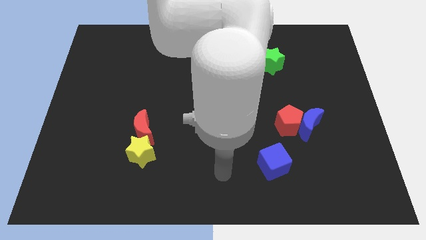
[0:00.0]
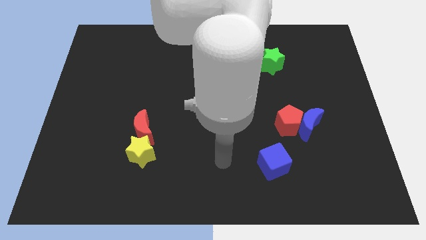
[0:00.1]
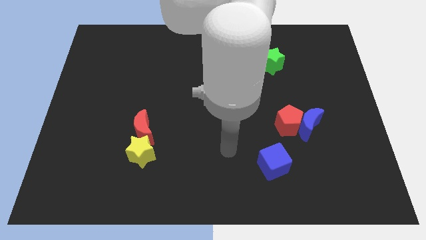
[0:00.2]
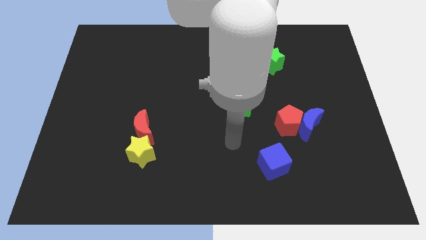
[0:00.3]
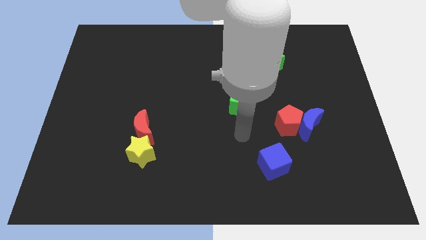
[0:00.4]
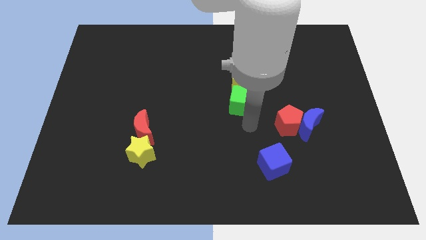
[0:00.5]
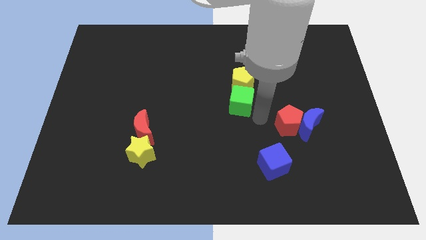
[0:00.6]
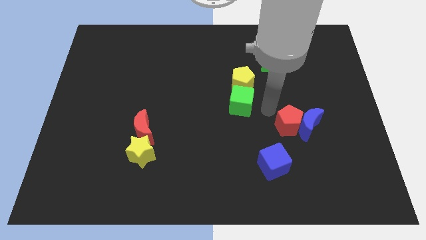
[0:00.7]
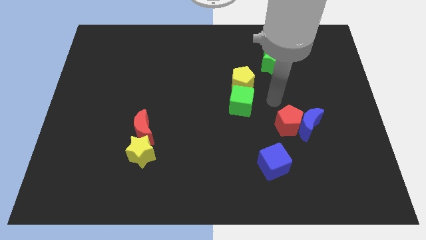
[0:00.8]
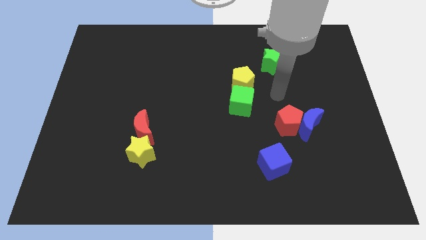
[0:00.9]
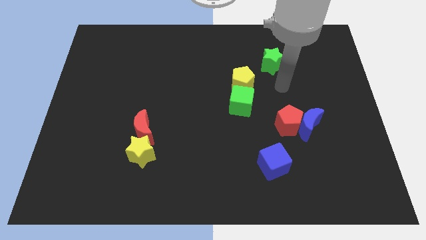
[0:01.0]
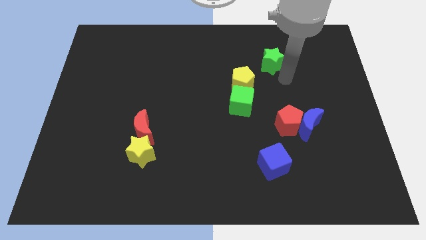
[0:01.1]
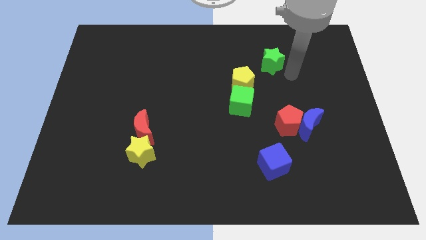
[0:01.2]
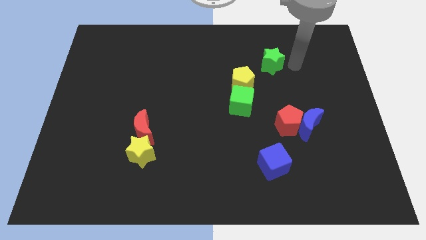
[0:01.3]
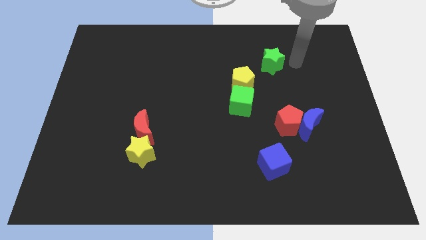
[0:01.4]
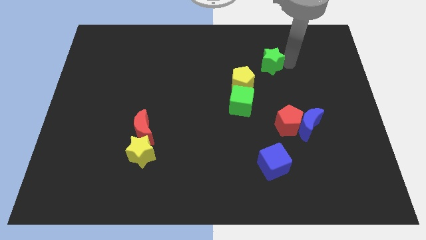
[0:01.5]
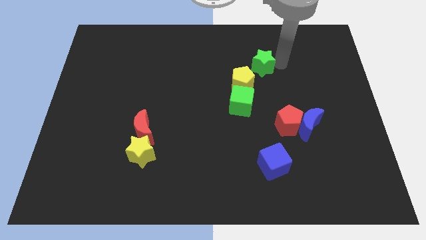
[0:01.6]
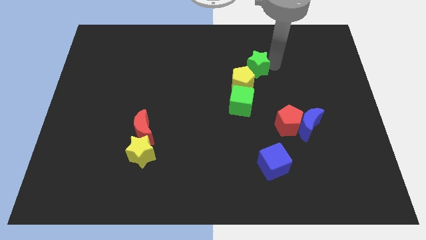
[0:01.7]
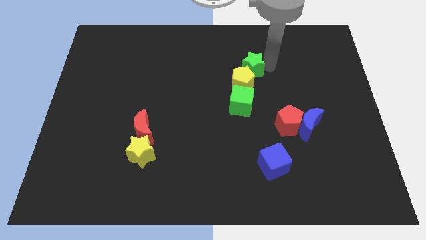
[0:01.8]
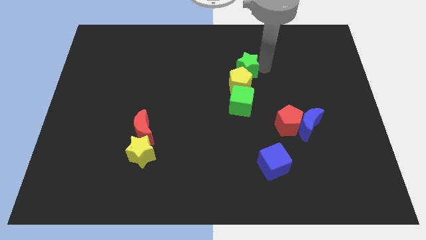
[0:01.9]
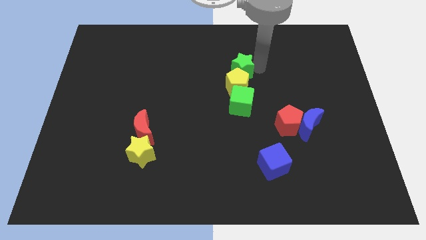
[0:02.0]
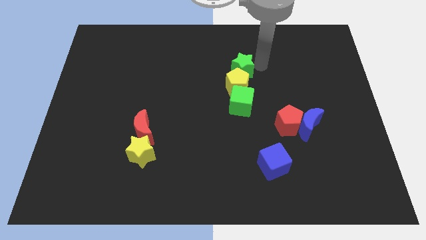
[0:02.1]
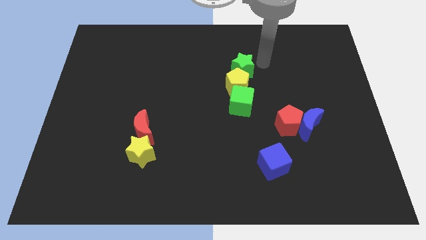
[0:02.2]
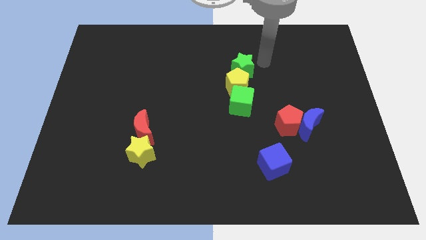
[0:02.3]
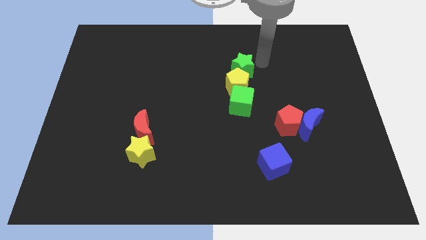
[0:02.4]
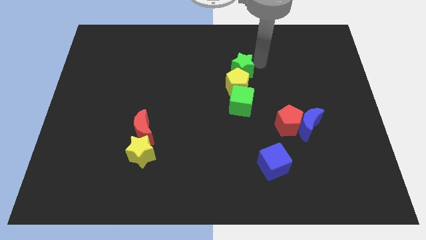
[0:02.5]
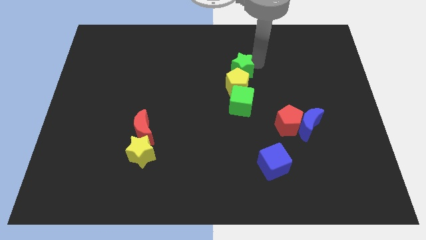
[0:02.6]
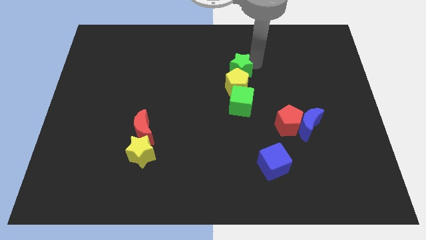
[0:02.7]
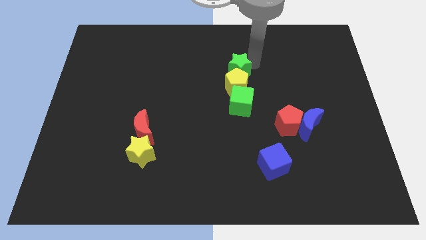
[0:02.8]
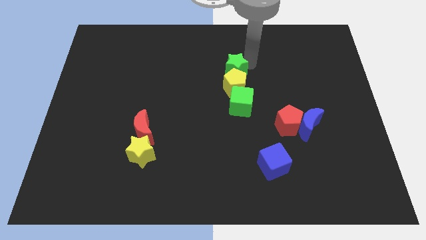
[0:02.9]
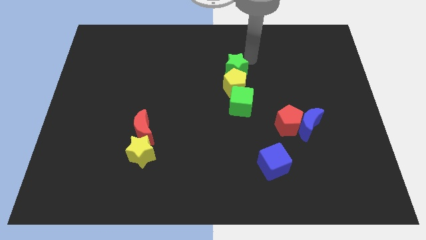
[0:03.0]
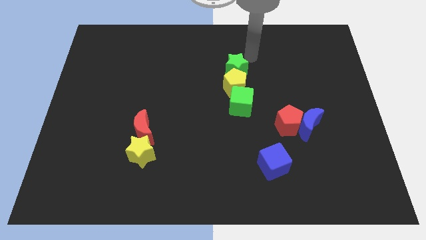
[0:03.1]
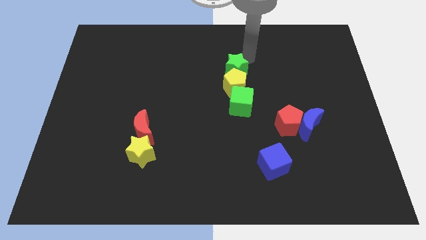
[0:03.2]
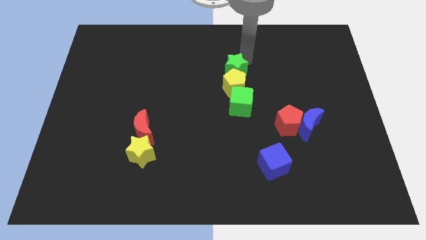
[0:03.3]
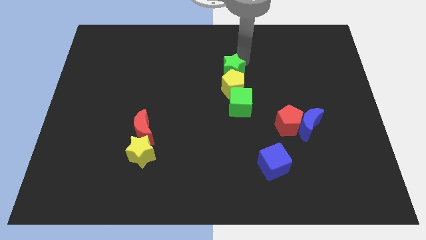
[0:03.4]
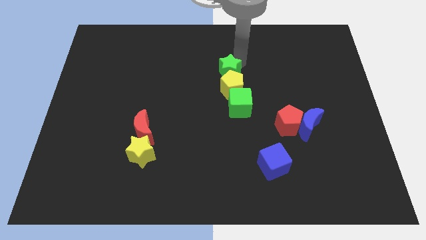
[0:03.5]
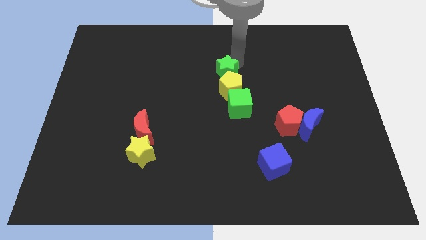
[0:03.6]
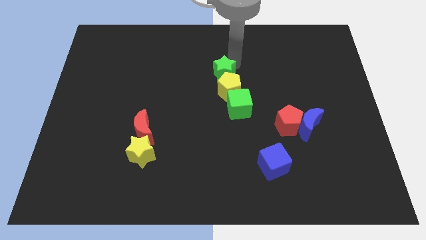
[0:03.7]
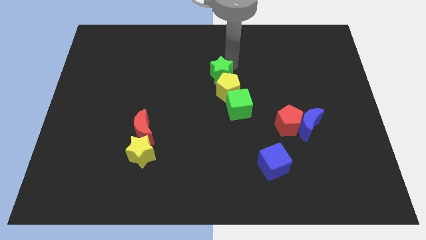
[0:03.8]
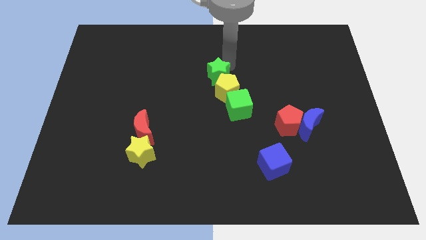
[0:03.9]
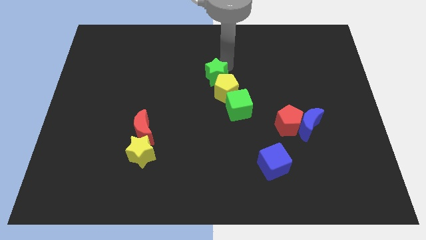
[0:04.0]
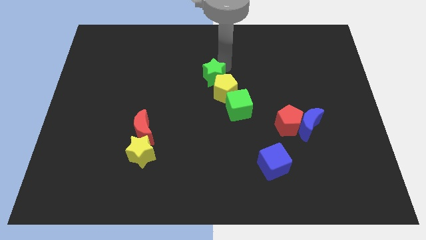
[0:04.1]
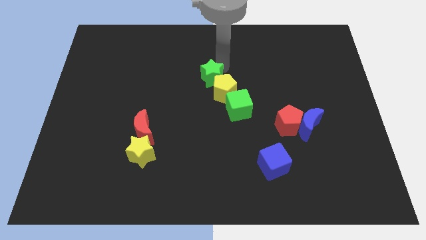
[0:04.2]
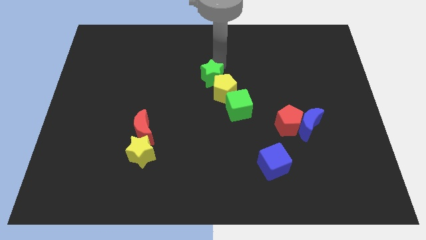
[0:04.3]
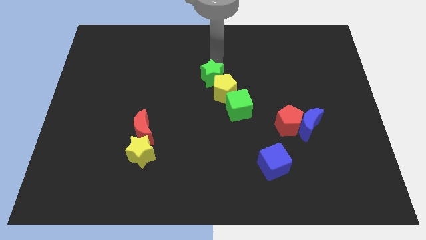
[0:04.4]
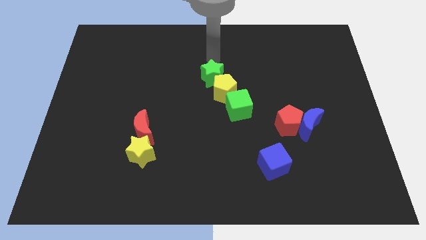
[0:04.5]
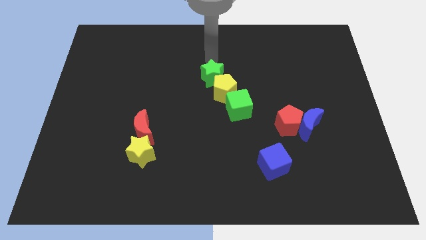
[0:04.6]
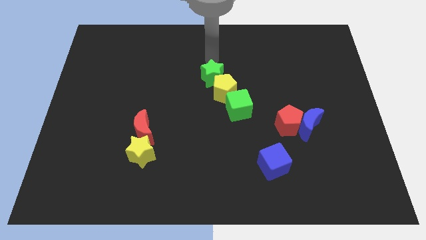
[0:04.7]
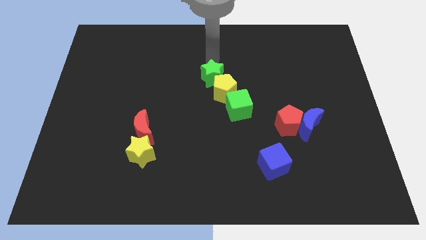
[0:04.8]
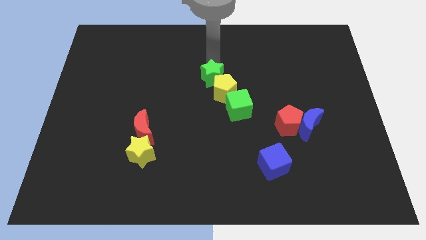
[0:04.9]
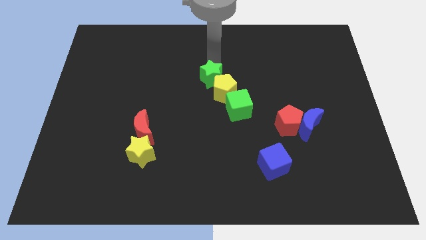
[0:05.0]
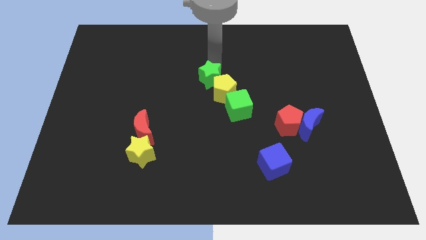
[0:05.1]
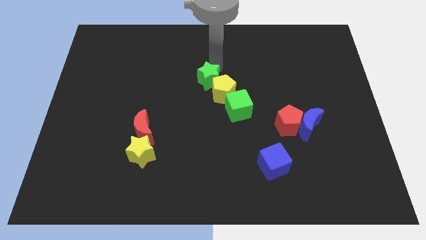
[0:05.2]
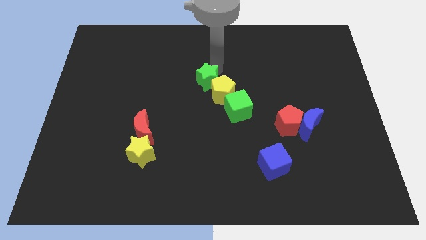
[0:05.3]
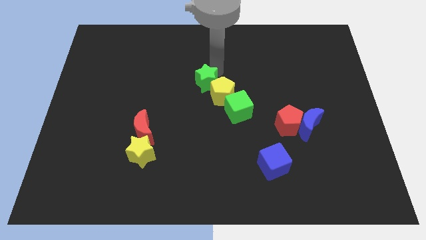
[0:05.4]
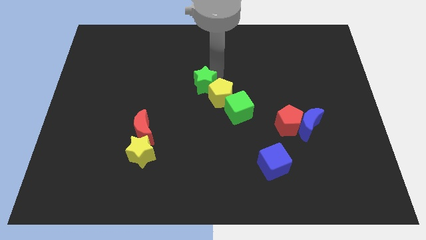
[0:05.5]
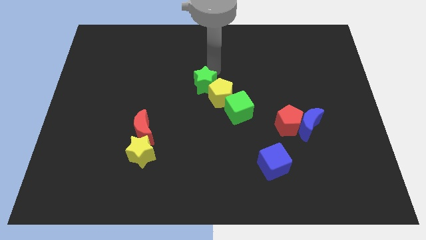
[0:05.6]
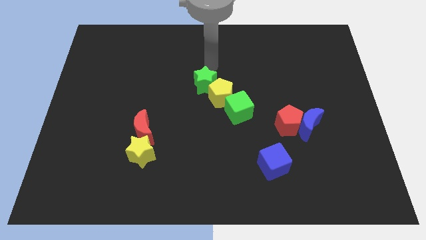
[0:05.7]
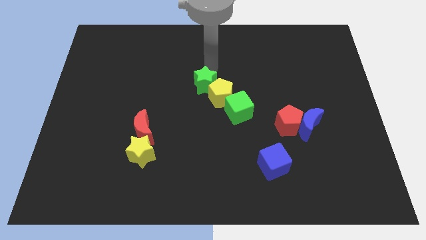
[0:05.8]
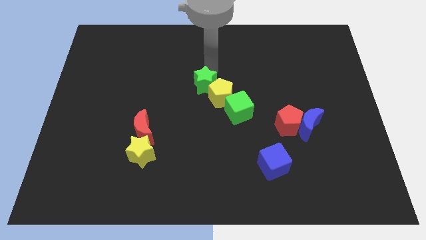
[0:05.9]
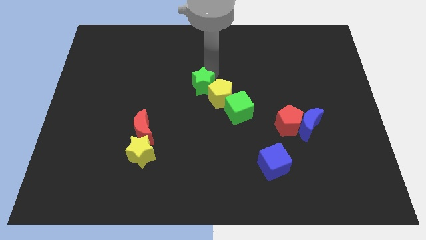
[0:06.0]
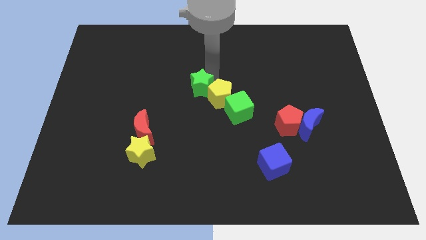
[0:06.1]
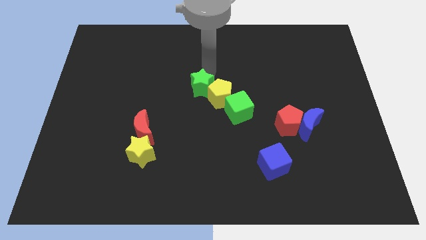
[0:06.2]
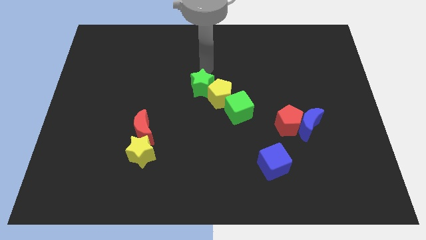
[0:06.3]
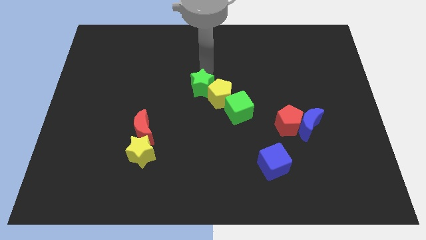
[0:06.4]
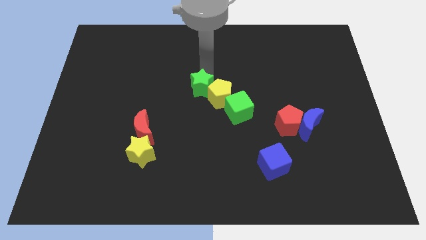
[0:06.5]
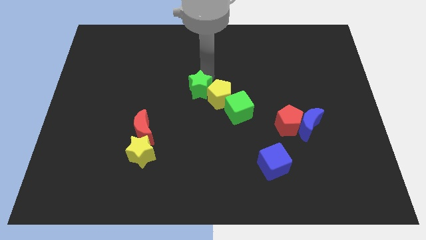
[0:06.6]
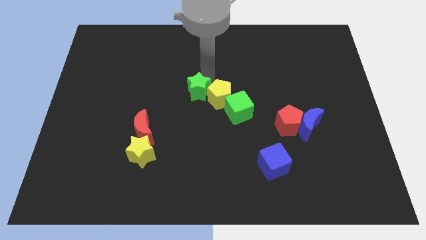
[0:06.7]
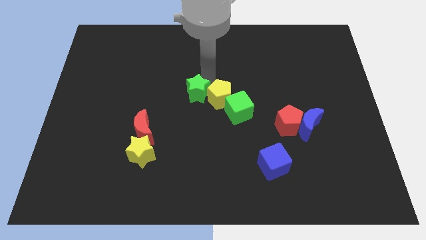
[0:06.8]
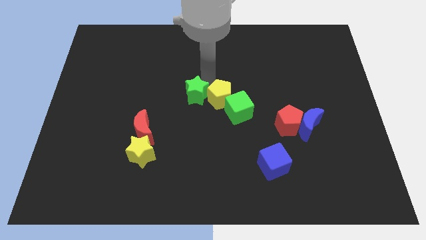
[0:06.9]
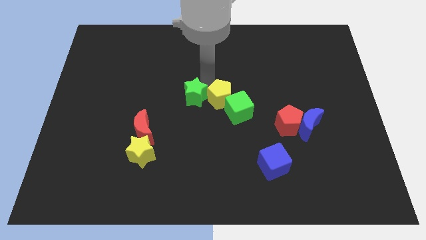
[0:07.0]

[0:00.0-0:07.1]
move the green star downwards and then to the left

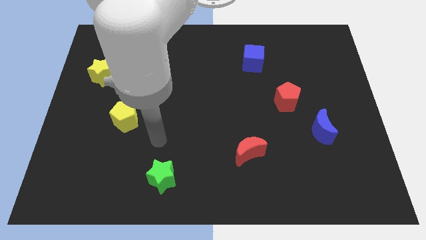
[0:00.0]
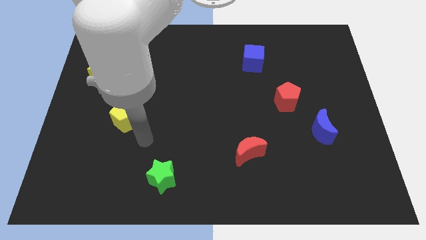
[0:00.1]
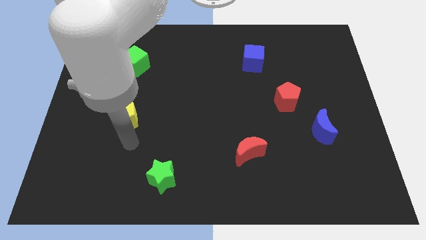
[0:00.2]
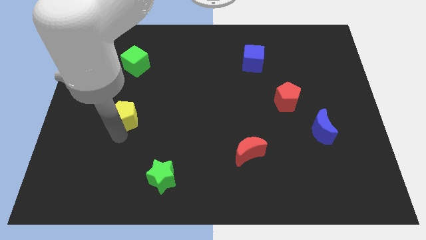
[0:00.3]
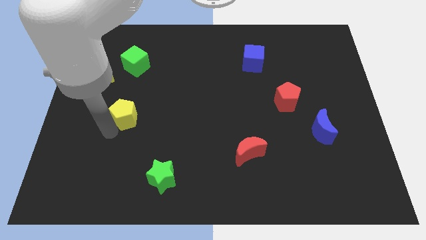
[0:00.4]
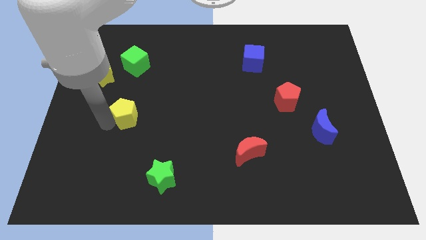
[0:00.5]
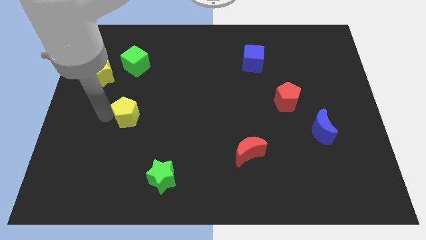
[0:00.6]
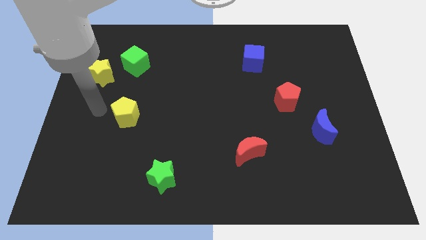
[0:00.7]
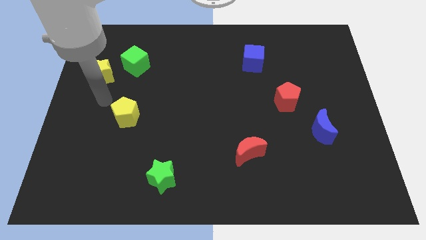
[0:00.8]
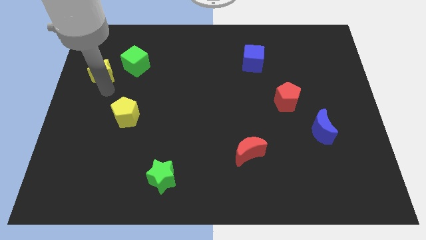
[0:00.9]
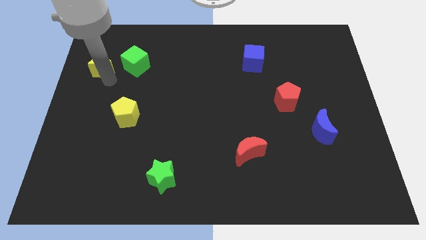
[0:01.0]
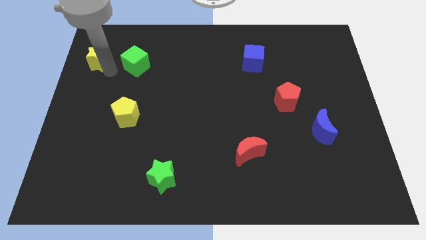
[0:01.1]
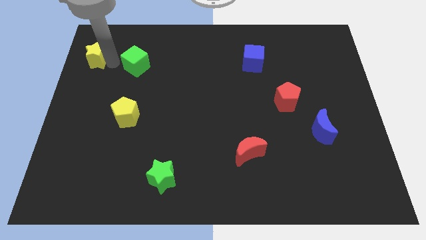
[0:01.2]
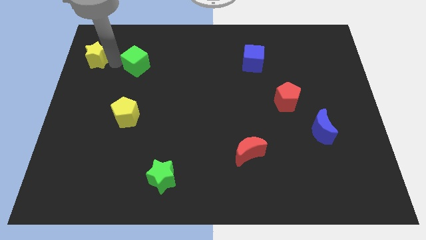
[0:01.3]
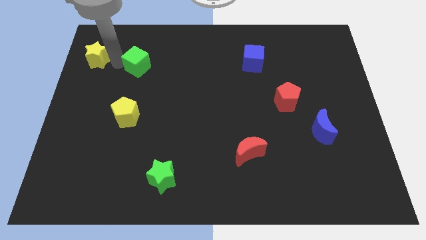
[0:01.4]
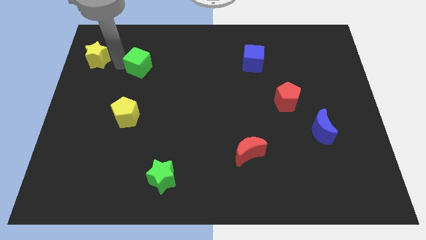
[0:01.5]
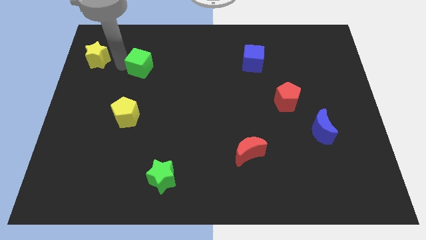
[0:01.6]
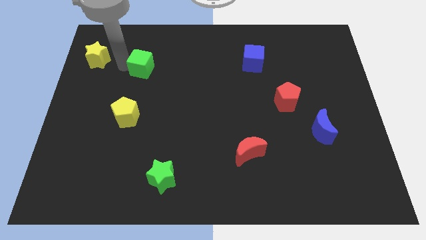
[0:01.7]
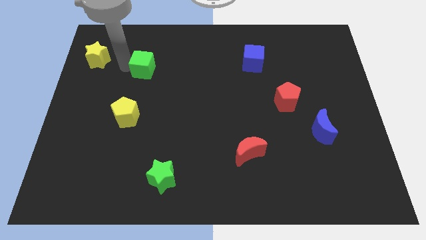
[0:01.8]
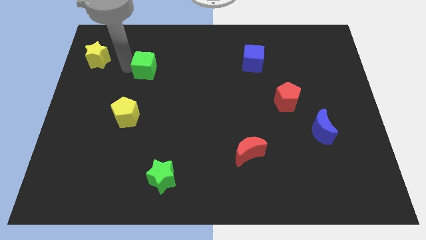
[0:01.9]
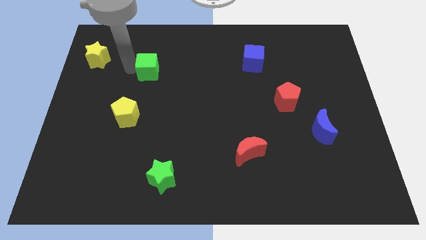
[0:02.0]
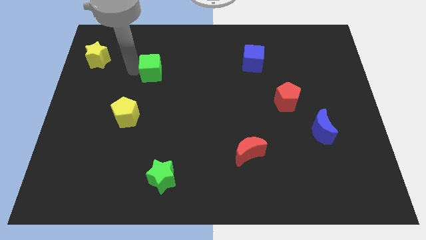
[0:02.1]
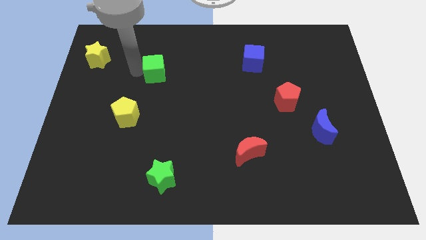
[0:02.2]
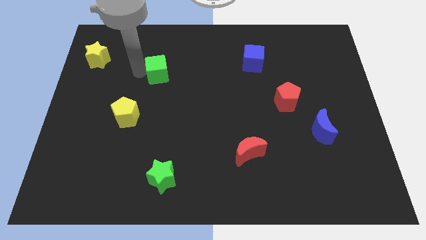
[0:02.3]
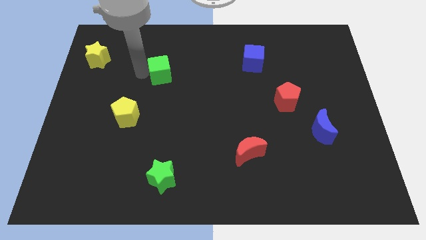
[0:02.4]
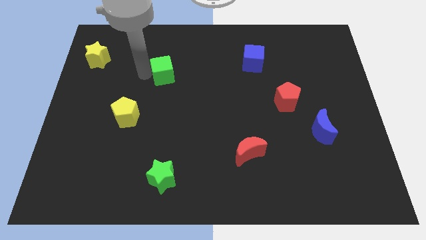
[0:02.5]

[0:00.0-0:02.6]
slightly slide the green cube to the right
